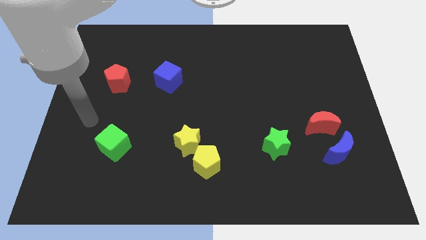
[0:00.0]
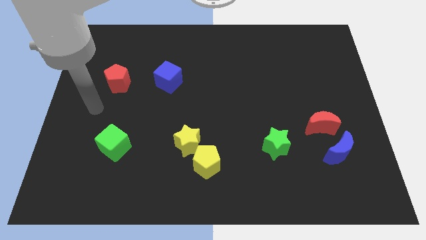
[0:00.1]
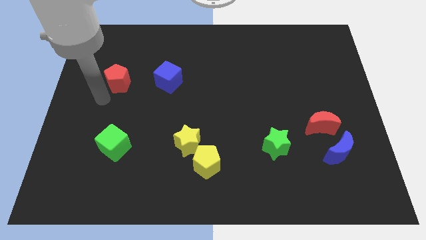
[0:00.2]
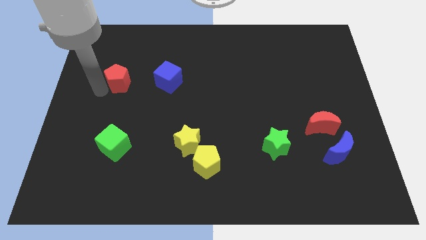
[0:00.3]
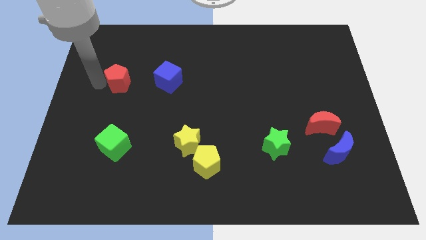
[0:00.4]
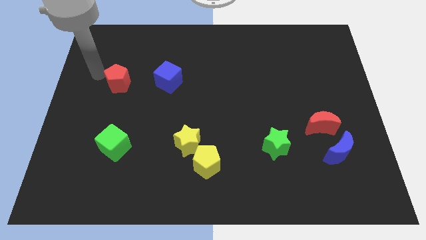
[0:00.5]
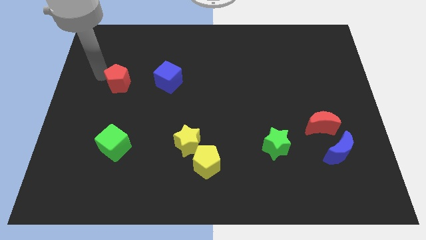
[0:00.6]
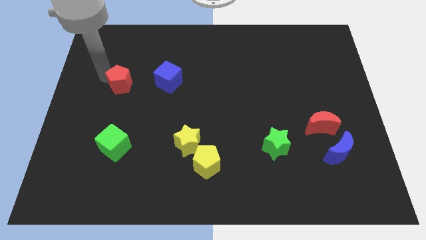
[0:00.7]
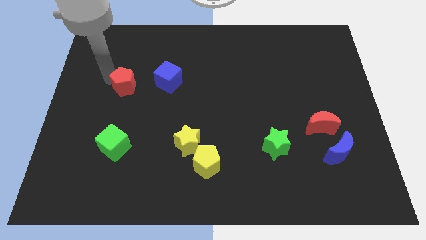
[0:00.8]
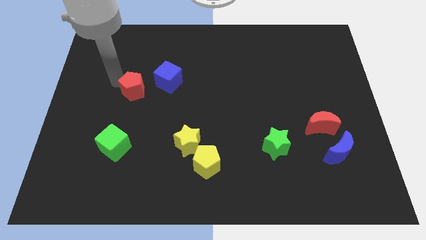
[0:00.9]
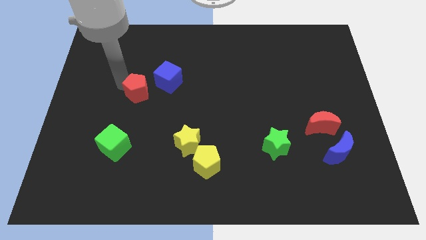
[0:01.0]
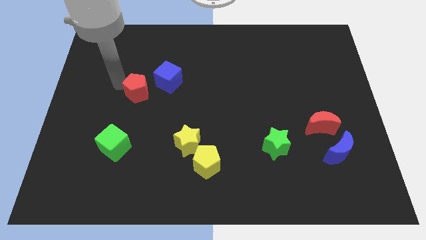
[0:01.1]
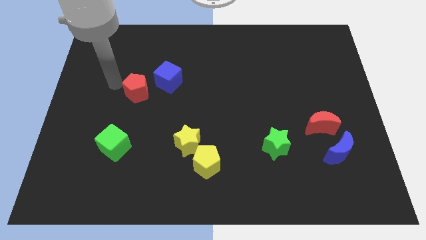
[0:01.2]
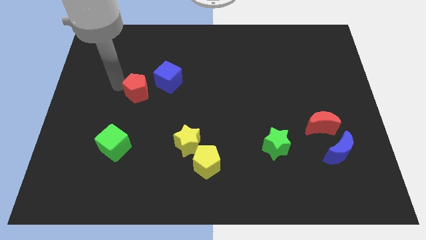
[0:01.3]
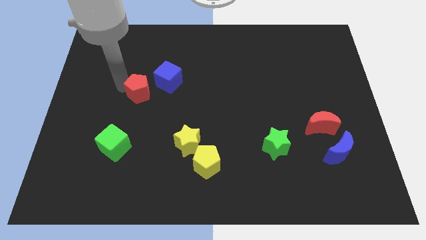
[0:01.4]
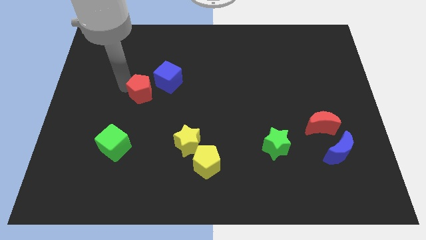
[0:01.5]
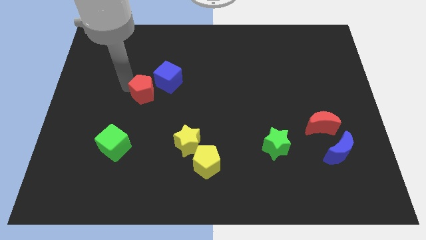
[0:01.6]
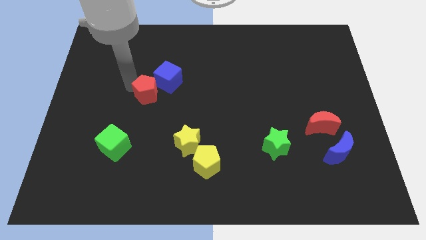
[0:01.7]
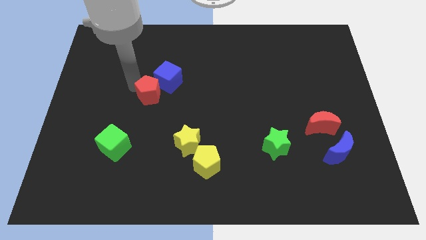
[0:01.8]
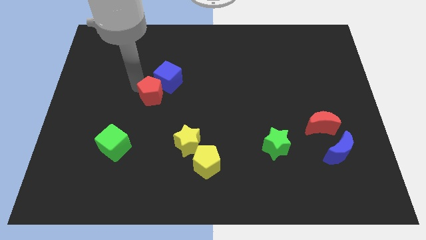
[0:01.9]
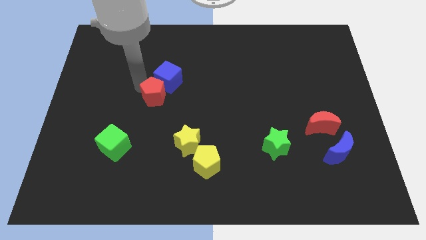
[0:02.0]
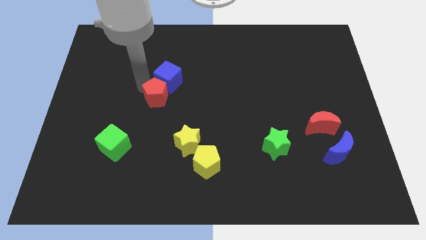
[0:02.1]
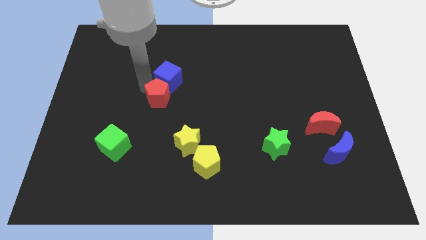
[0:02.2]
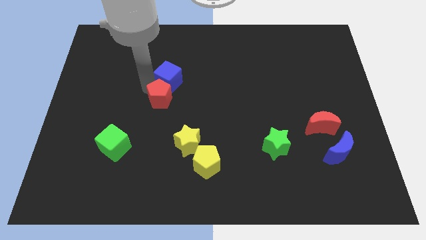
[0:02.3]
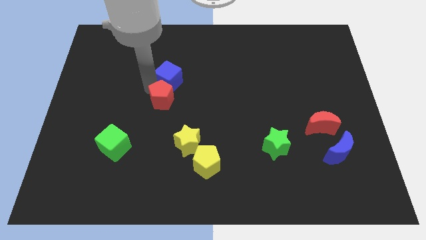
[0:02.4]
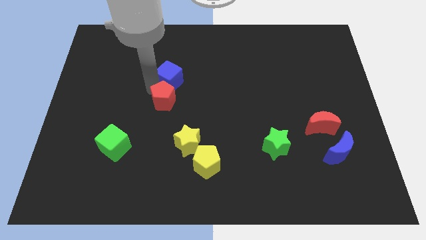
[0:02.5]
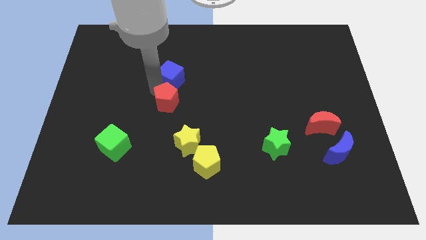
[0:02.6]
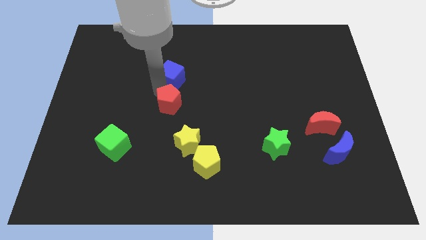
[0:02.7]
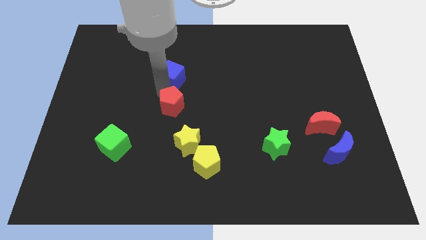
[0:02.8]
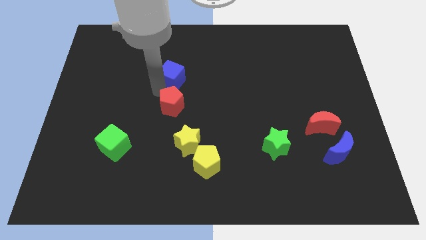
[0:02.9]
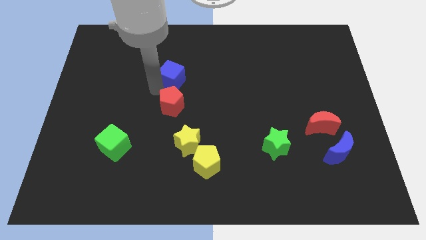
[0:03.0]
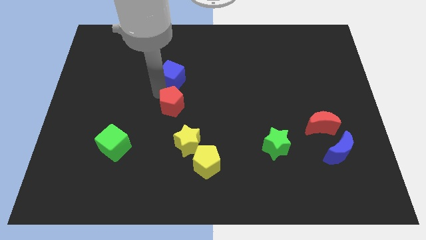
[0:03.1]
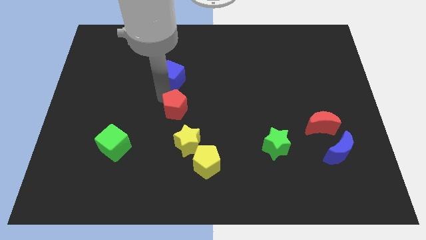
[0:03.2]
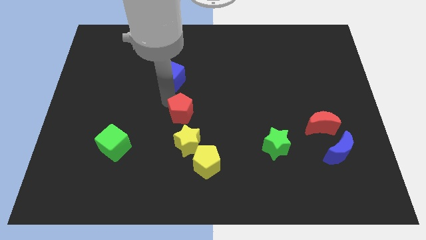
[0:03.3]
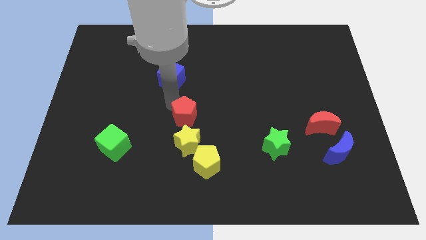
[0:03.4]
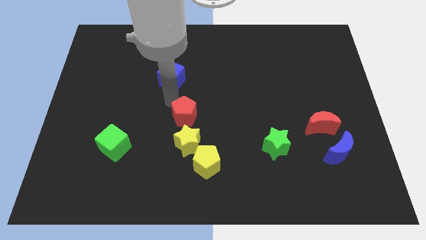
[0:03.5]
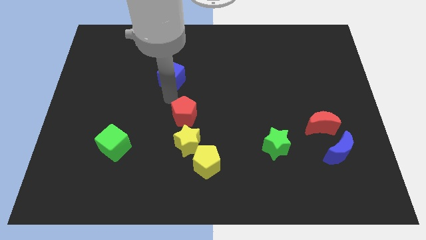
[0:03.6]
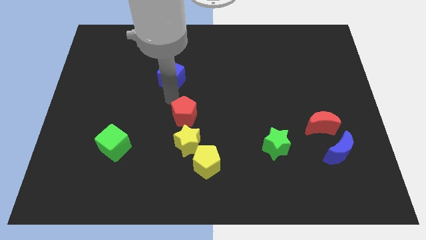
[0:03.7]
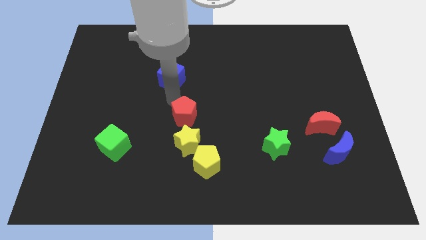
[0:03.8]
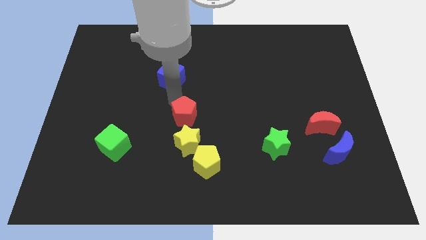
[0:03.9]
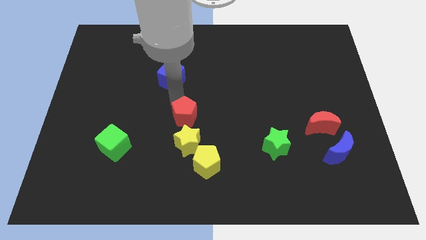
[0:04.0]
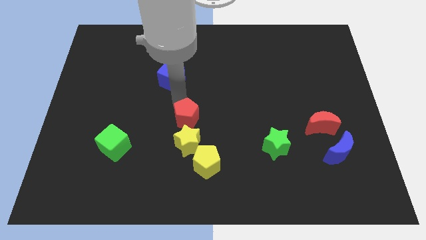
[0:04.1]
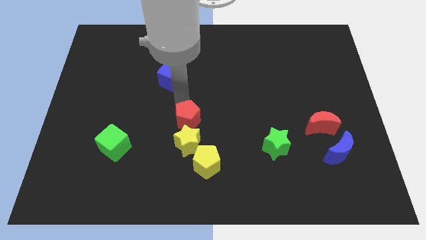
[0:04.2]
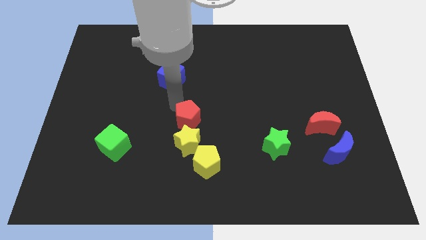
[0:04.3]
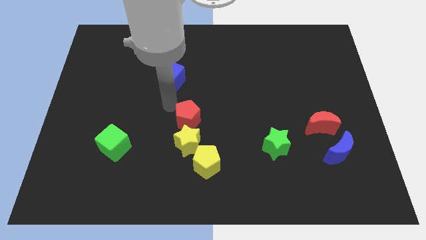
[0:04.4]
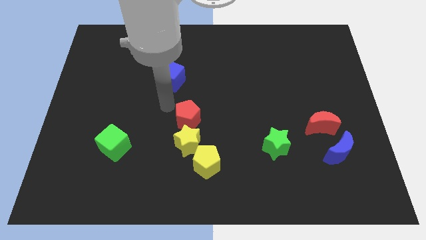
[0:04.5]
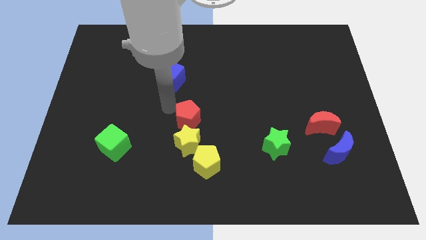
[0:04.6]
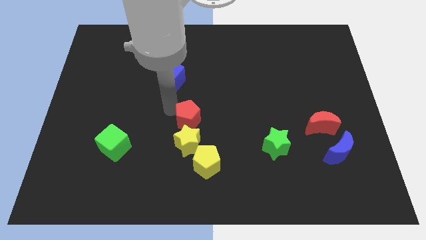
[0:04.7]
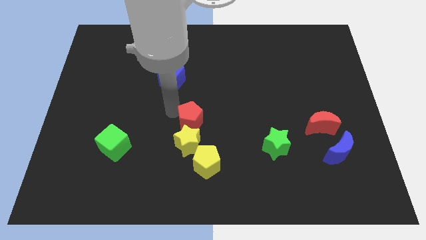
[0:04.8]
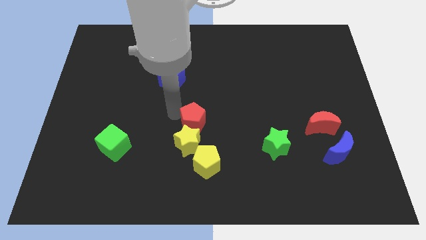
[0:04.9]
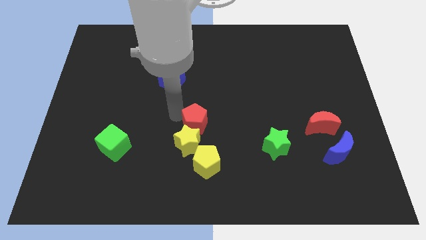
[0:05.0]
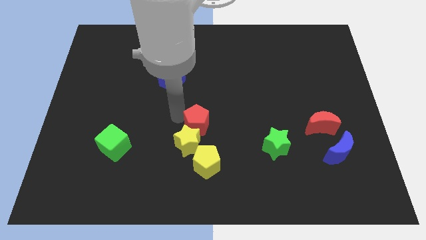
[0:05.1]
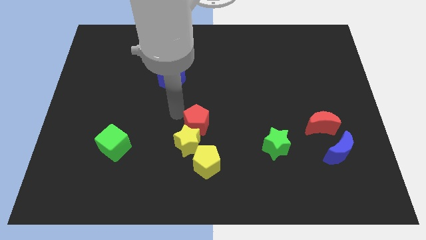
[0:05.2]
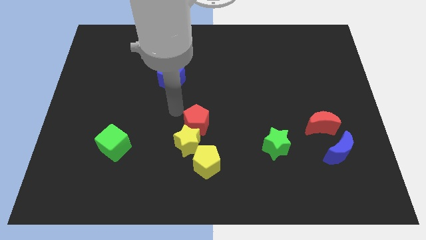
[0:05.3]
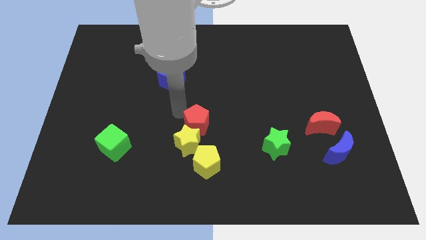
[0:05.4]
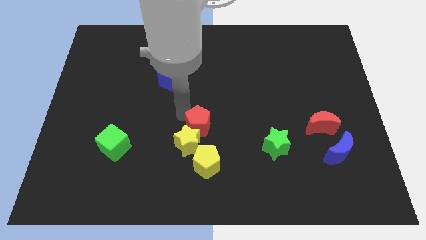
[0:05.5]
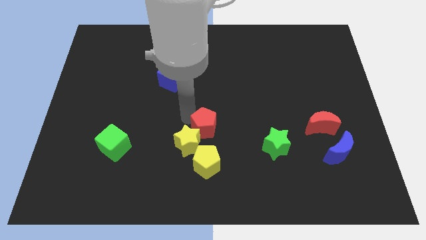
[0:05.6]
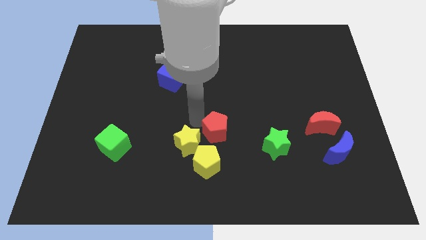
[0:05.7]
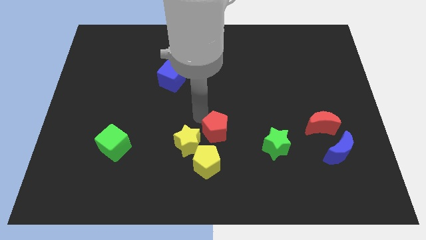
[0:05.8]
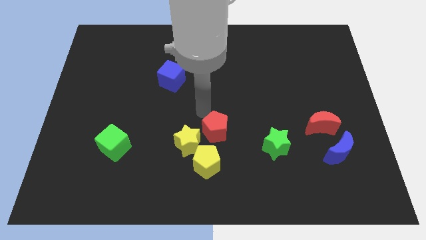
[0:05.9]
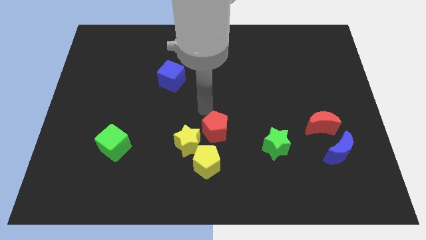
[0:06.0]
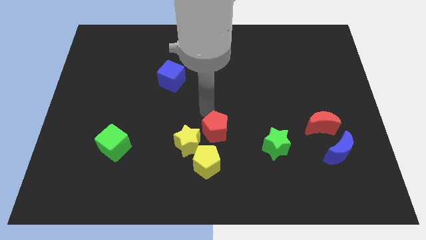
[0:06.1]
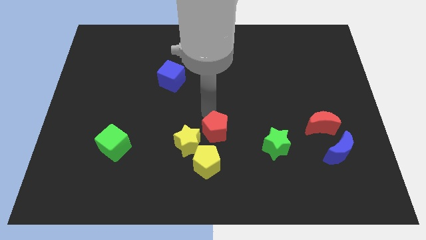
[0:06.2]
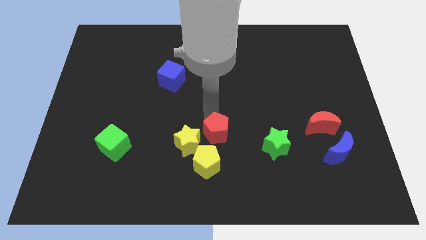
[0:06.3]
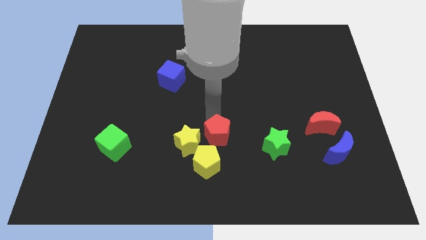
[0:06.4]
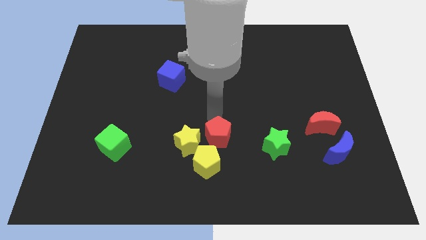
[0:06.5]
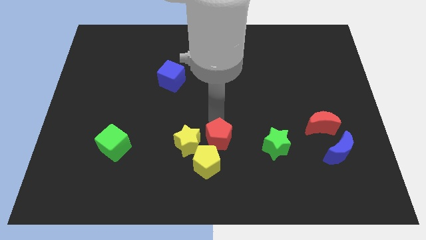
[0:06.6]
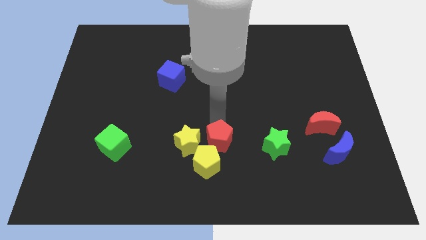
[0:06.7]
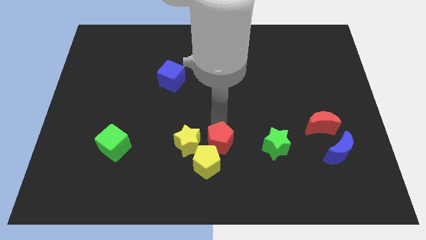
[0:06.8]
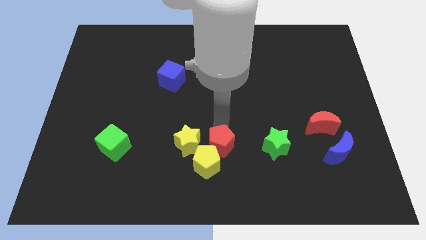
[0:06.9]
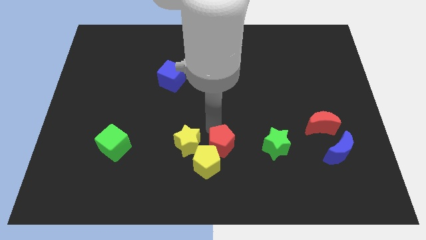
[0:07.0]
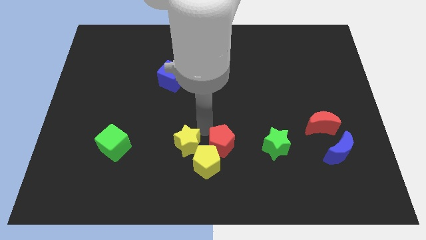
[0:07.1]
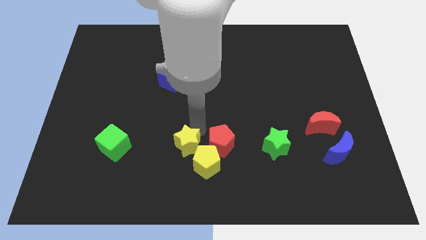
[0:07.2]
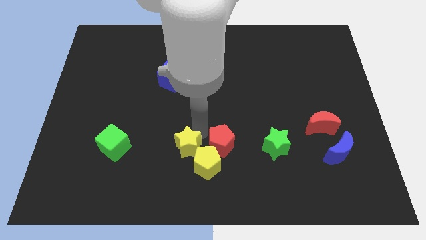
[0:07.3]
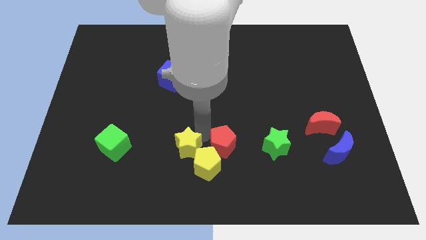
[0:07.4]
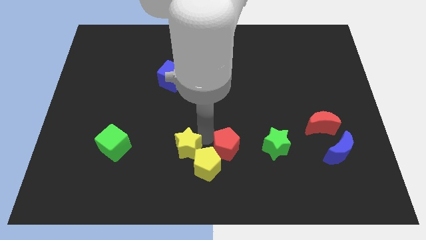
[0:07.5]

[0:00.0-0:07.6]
put the red pentagon right of the yellow pentagon

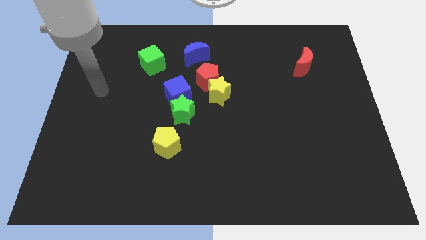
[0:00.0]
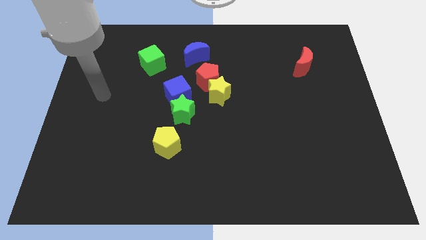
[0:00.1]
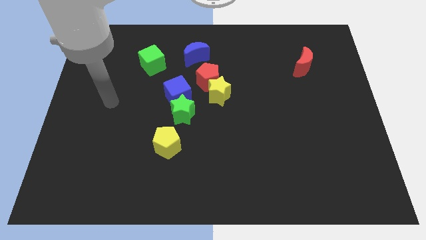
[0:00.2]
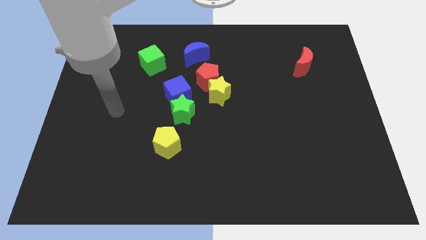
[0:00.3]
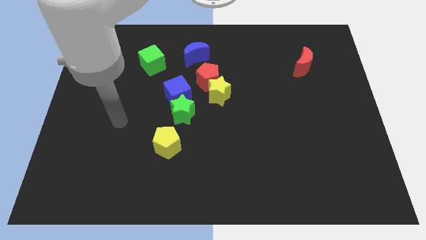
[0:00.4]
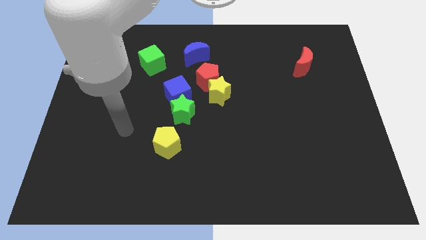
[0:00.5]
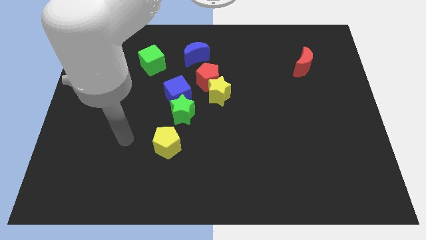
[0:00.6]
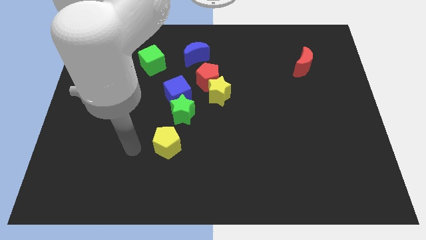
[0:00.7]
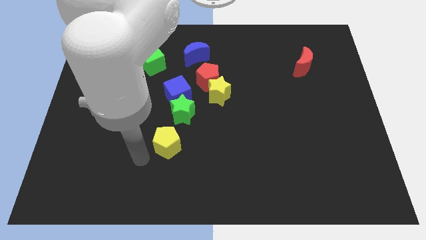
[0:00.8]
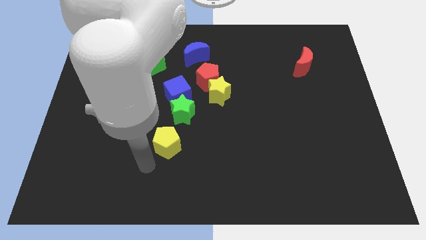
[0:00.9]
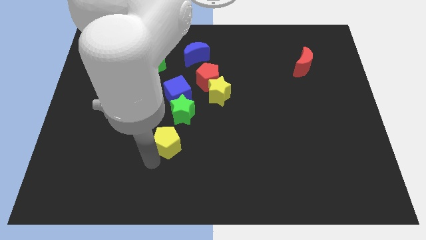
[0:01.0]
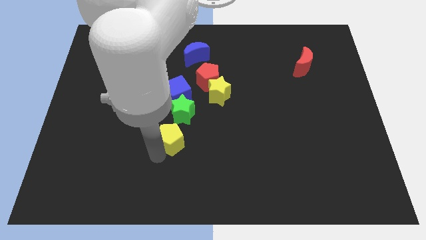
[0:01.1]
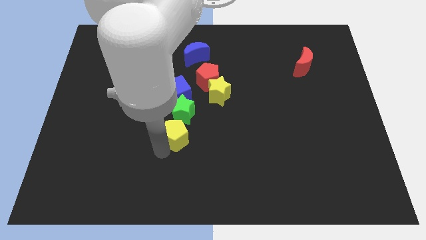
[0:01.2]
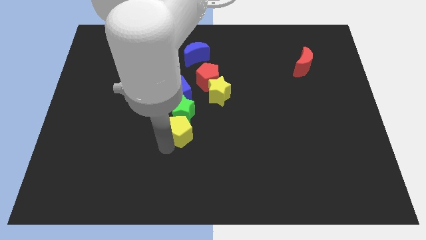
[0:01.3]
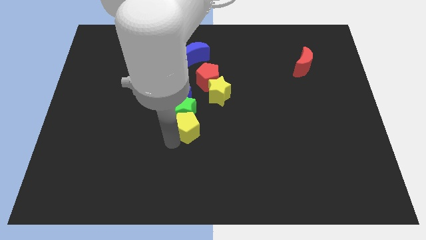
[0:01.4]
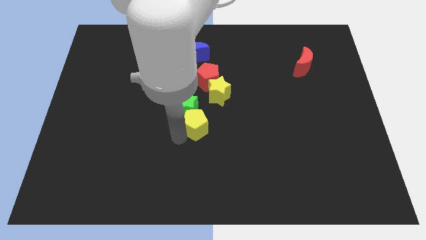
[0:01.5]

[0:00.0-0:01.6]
slide the yellow pentagon diagonally down and to the right of the blue cube
